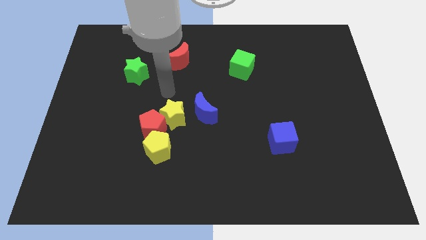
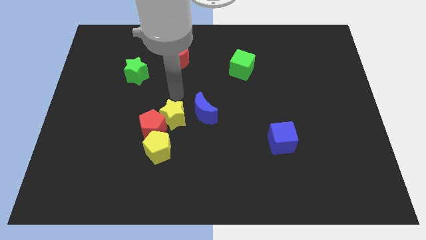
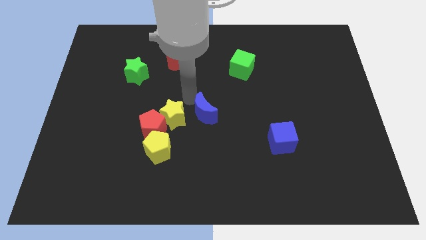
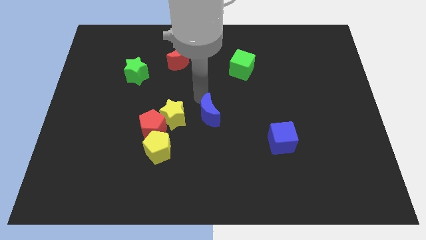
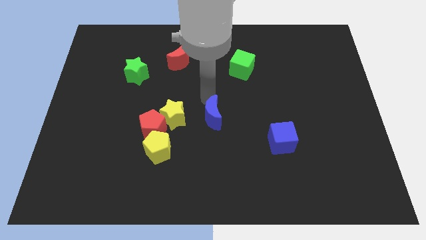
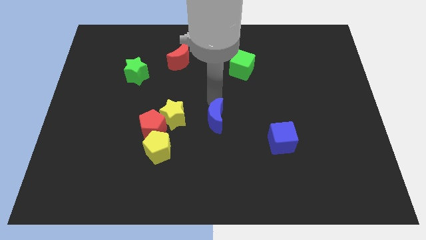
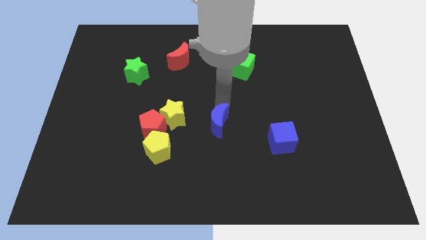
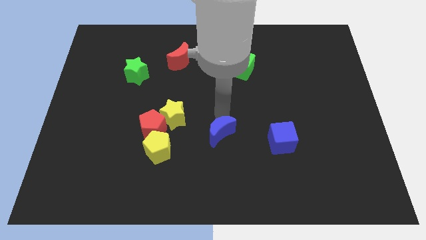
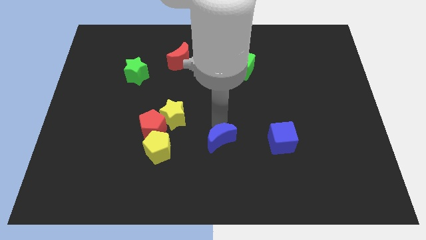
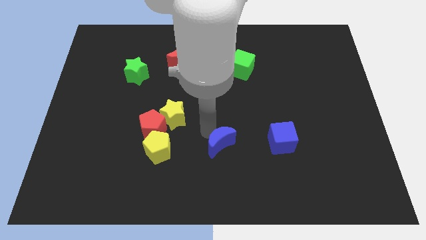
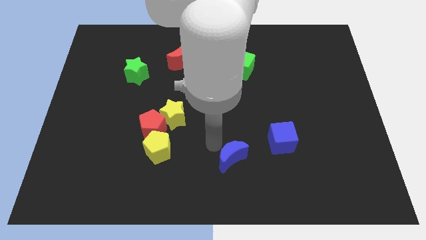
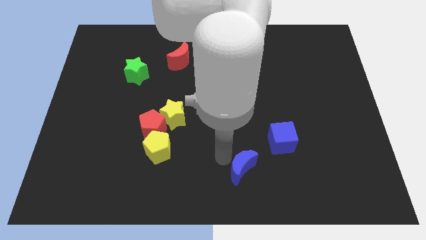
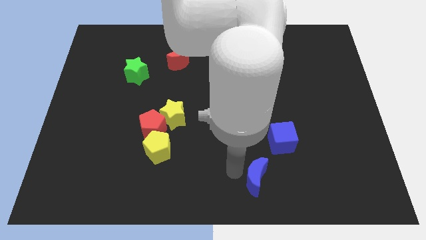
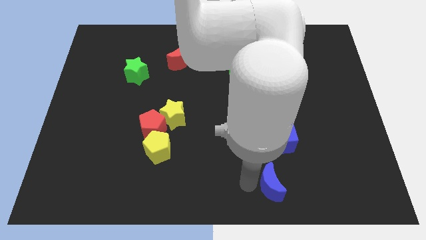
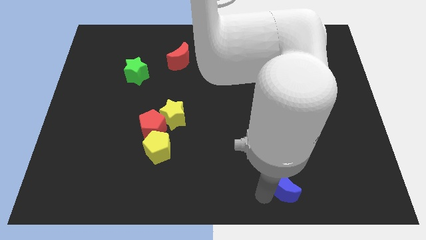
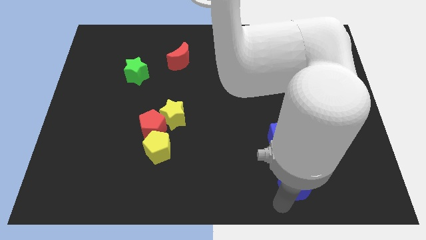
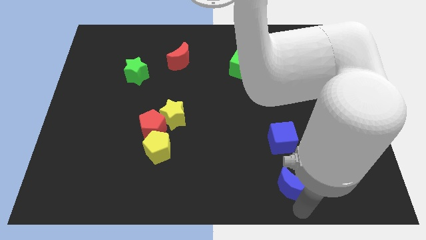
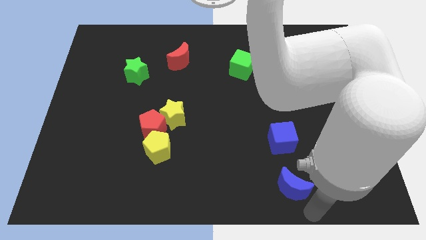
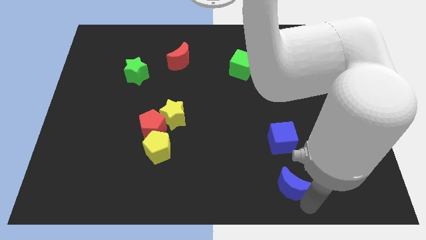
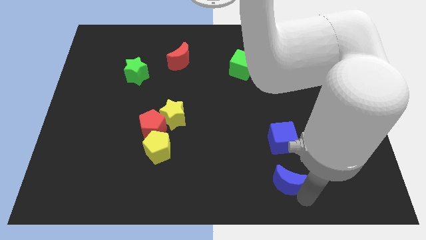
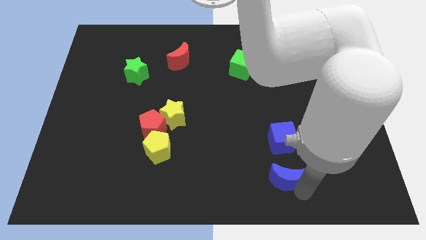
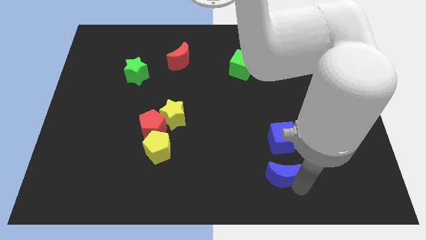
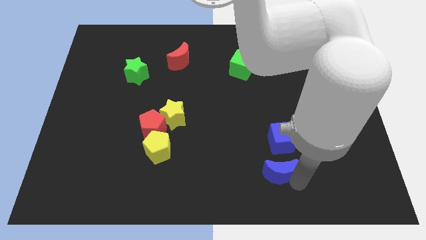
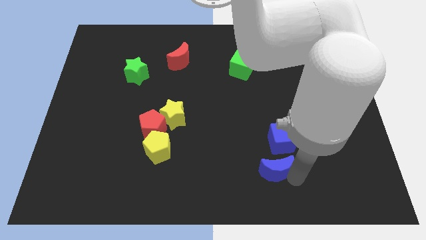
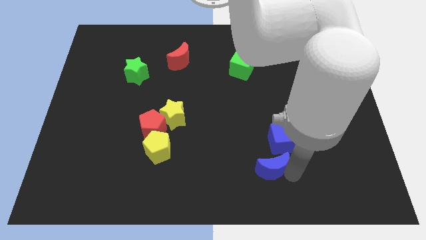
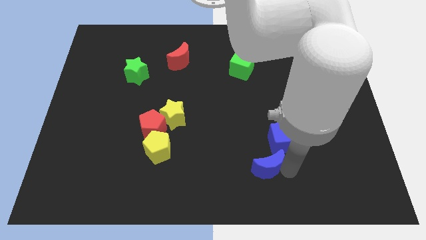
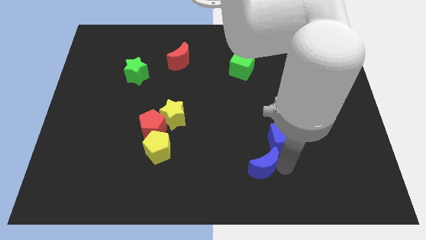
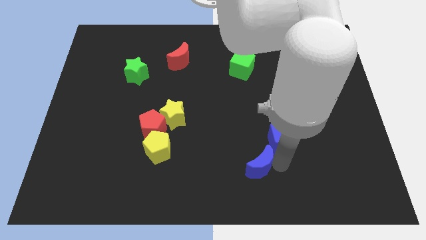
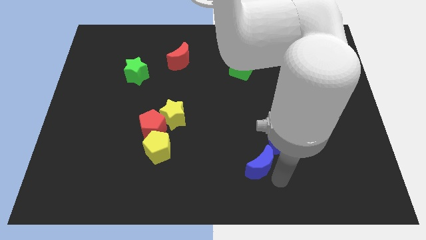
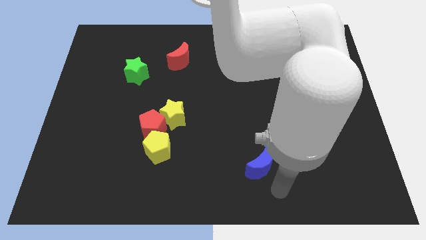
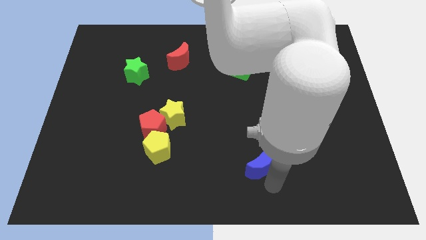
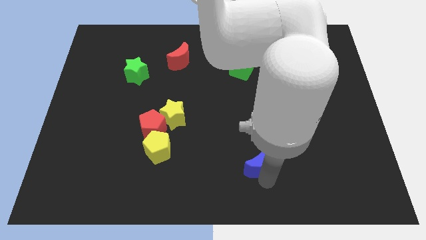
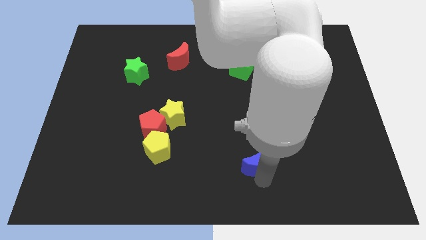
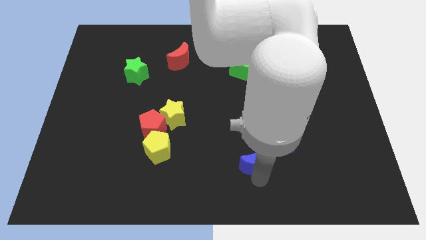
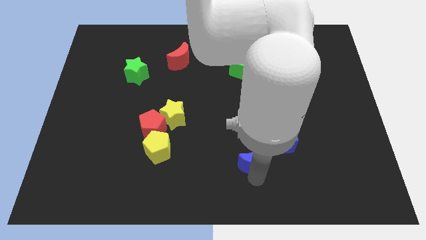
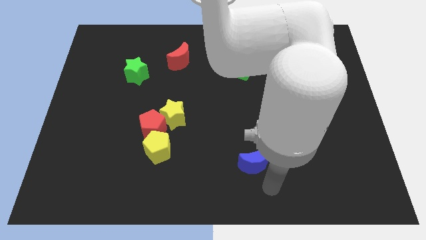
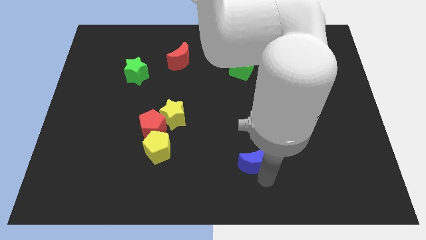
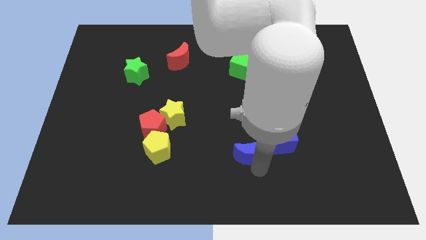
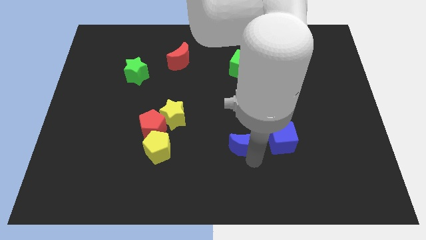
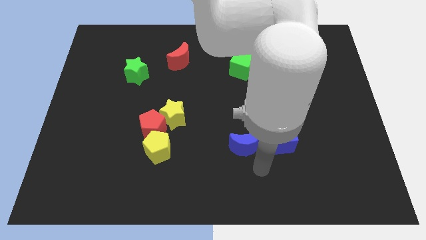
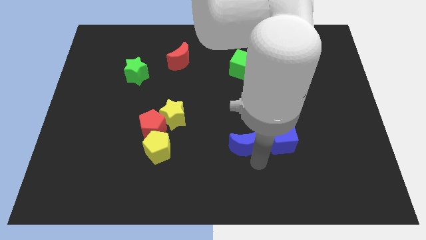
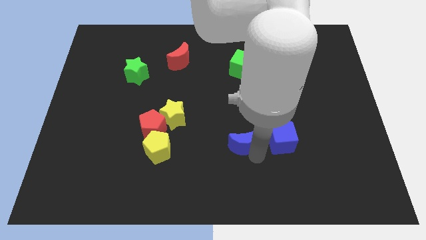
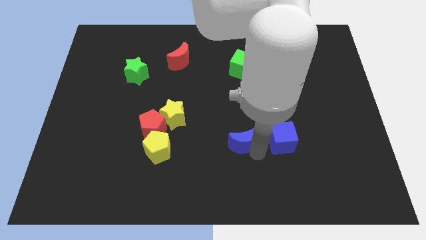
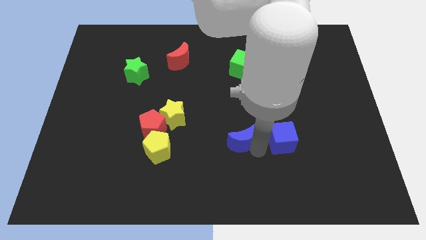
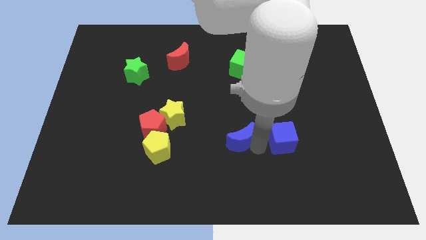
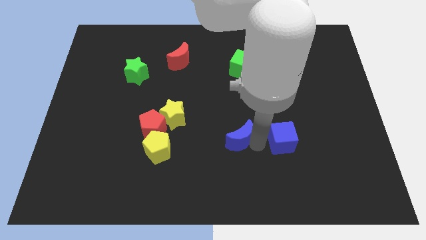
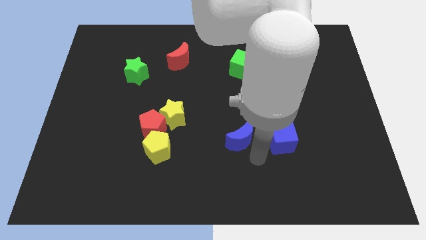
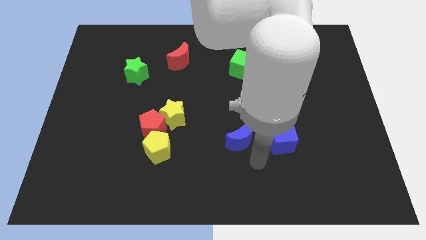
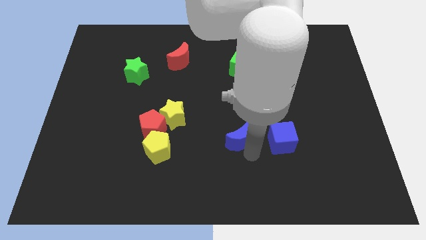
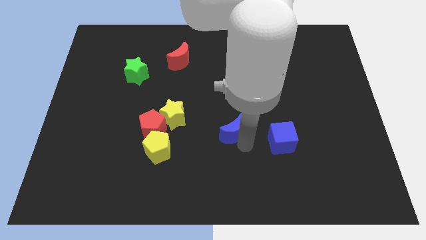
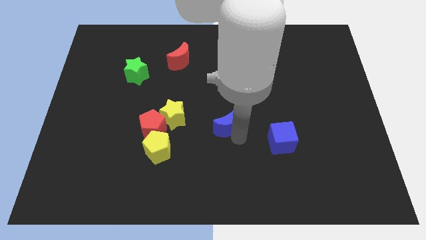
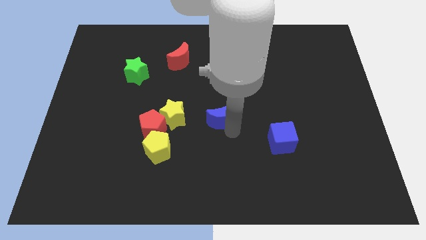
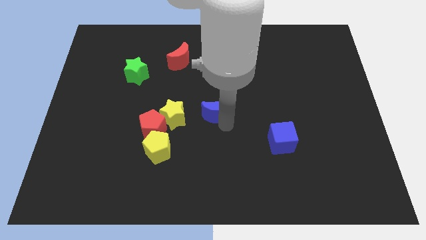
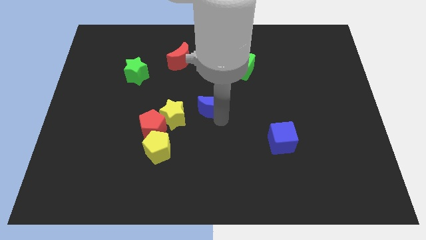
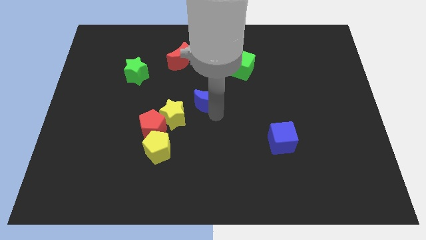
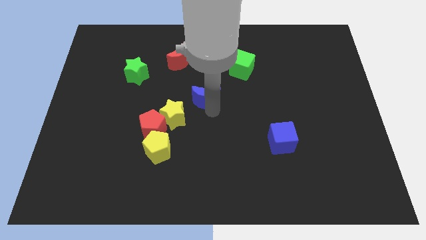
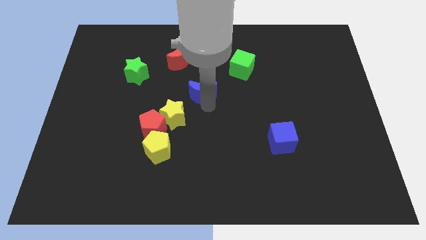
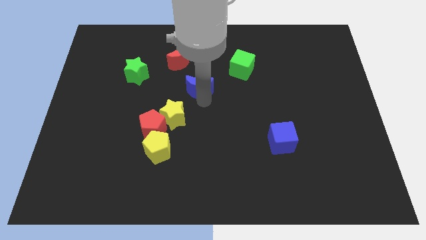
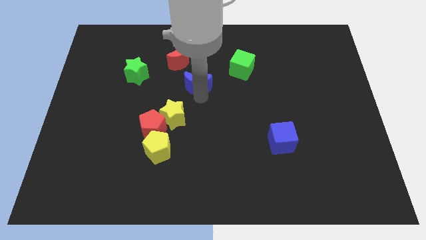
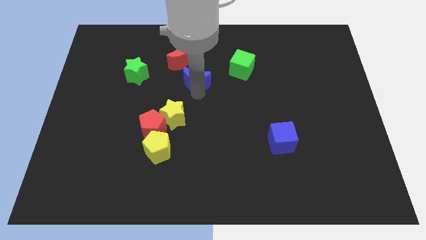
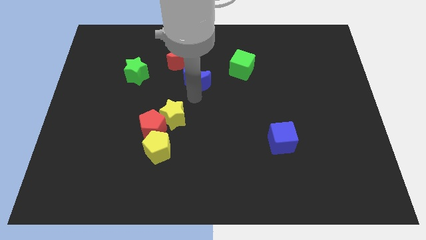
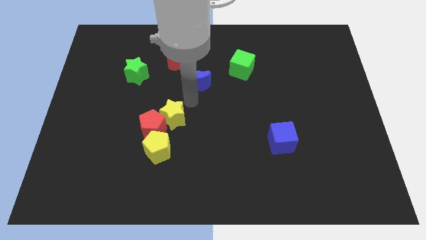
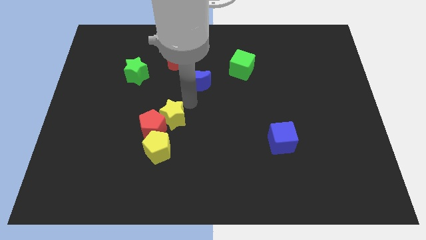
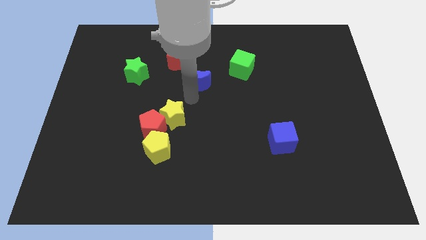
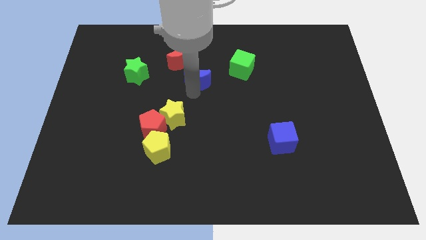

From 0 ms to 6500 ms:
slide the blue moon to the left side of the green cube
